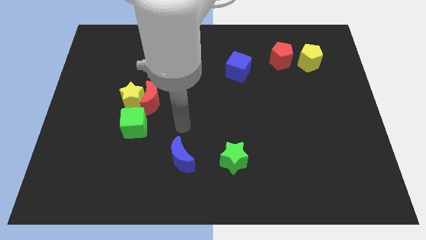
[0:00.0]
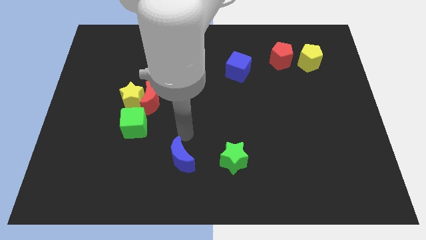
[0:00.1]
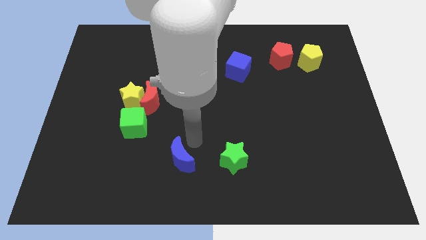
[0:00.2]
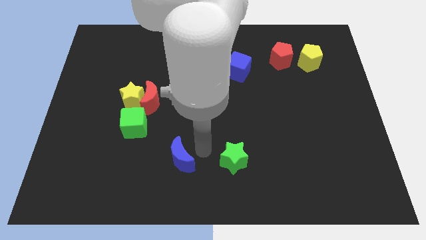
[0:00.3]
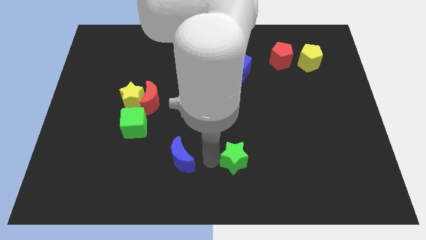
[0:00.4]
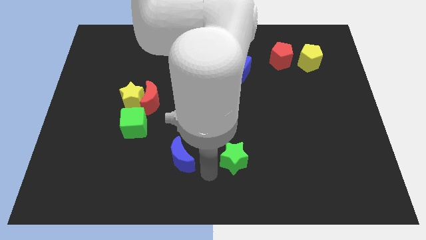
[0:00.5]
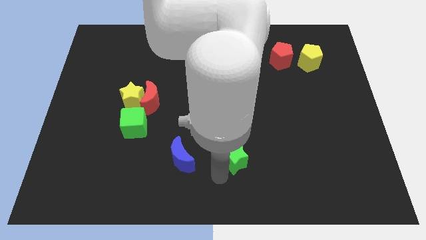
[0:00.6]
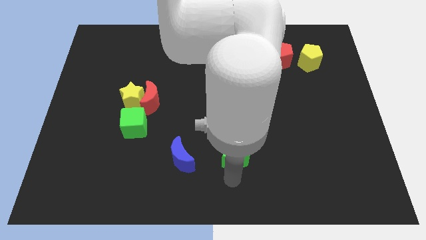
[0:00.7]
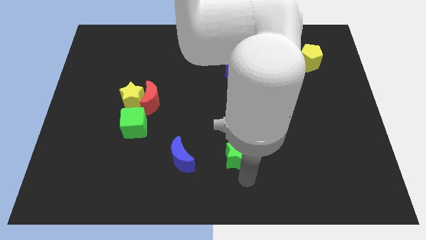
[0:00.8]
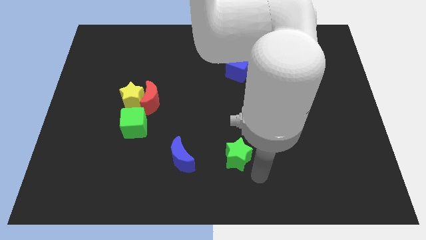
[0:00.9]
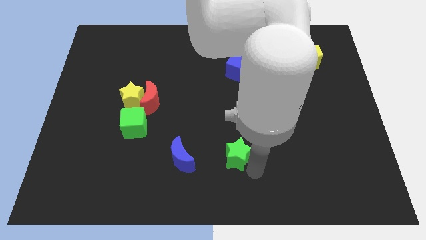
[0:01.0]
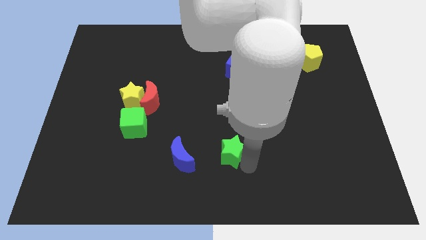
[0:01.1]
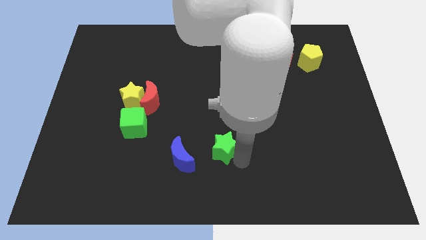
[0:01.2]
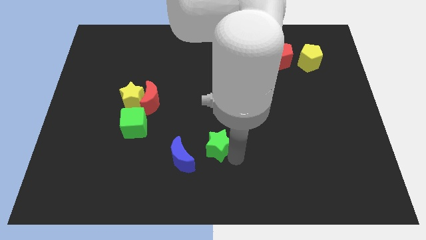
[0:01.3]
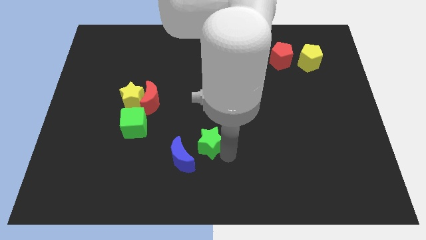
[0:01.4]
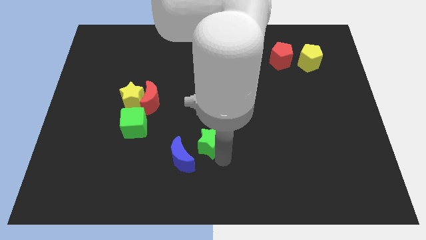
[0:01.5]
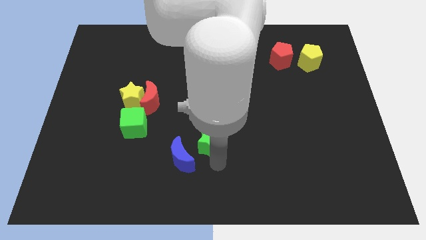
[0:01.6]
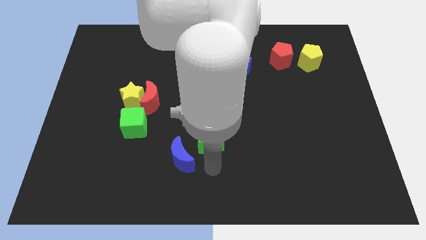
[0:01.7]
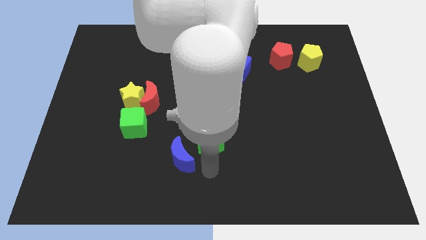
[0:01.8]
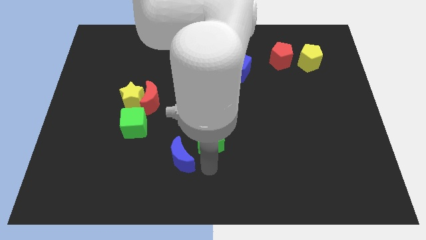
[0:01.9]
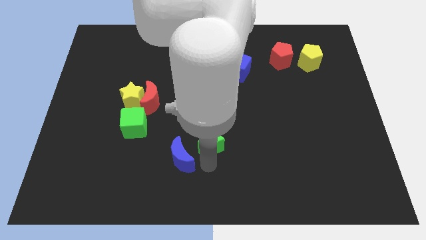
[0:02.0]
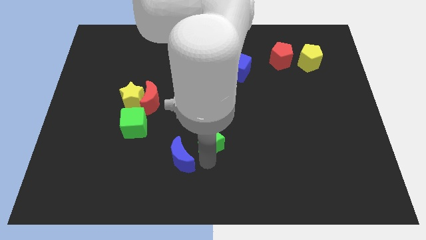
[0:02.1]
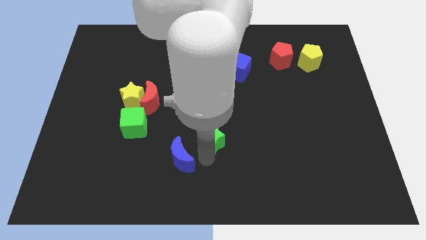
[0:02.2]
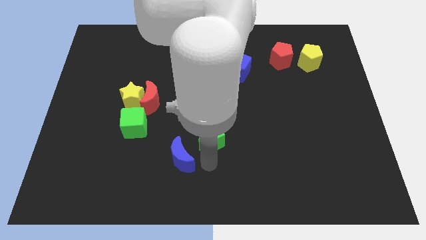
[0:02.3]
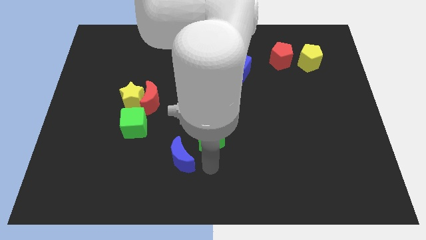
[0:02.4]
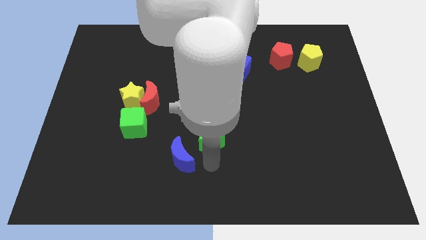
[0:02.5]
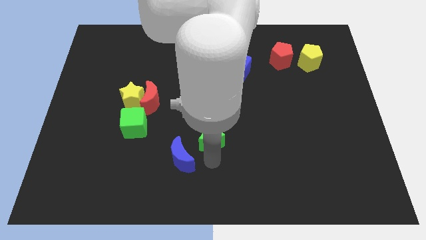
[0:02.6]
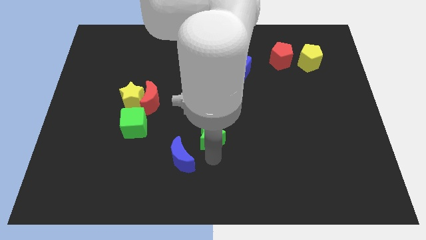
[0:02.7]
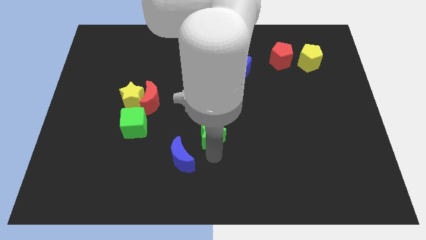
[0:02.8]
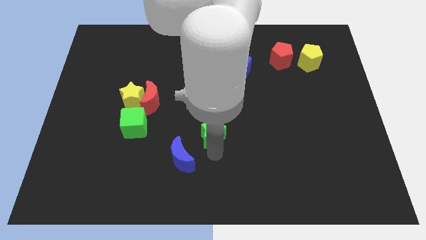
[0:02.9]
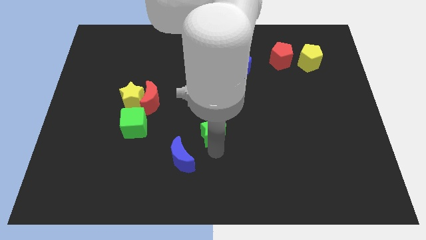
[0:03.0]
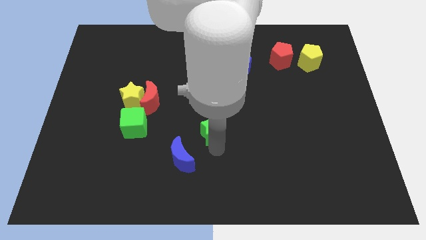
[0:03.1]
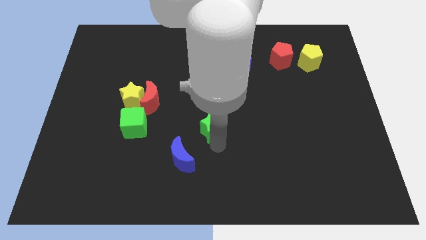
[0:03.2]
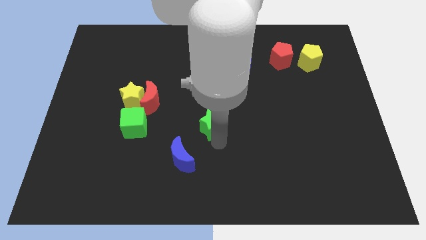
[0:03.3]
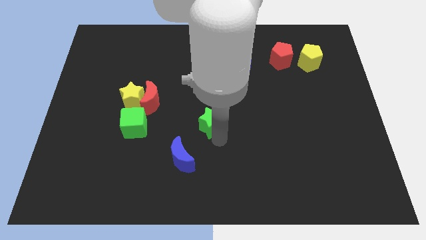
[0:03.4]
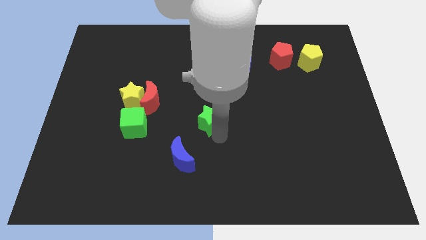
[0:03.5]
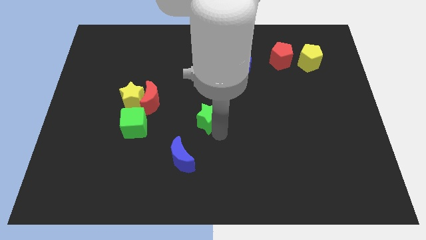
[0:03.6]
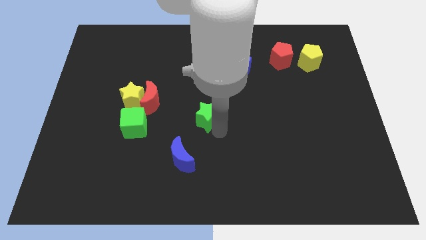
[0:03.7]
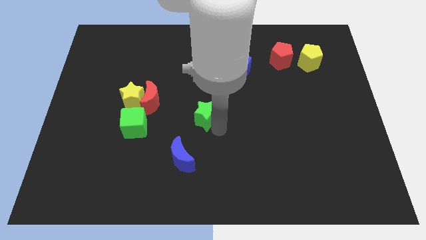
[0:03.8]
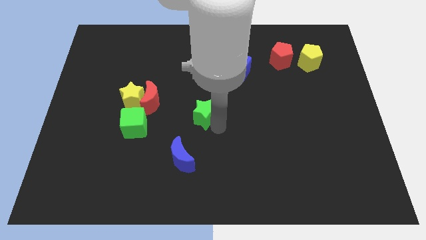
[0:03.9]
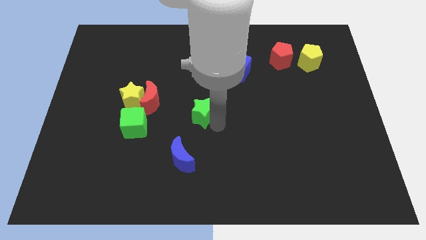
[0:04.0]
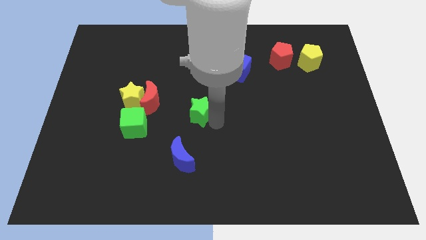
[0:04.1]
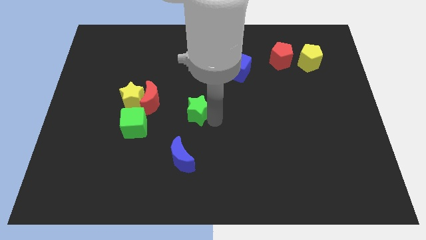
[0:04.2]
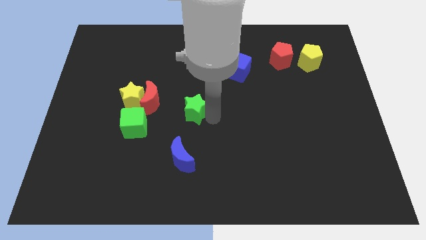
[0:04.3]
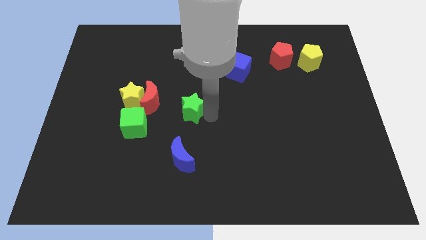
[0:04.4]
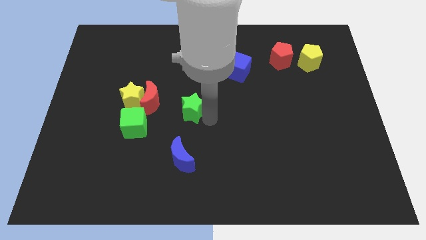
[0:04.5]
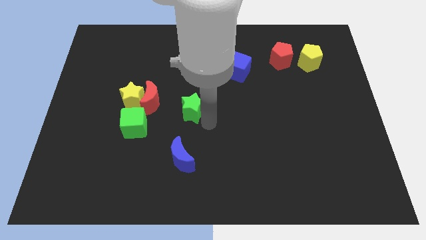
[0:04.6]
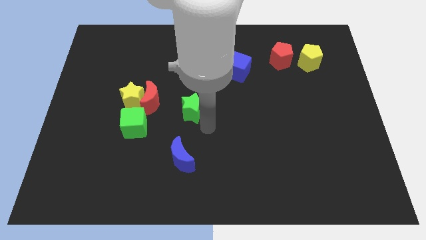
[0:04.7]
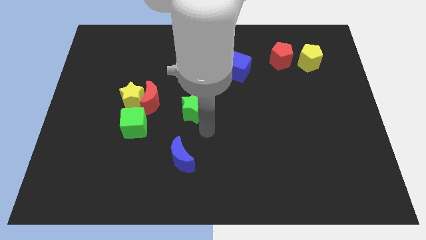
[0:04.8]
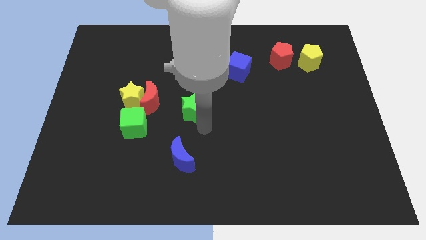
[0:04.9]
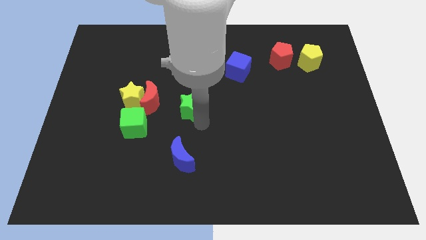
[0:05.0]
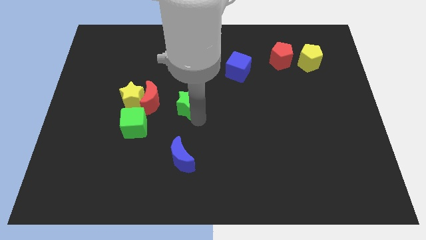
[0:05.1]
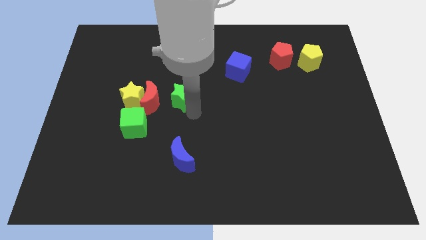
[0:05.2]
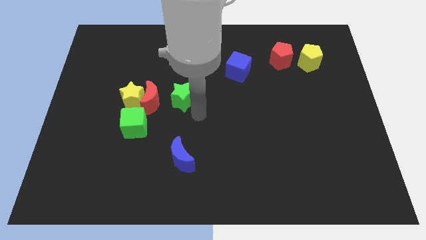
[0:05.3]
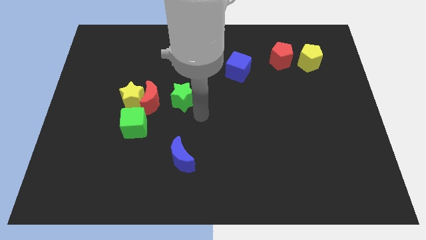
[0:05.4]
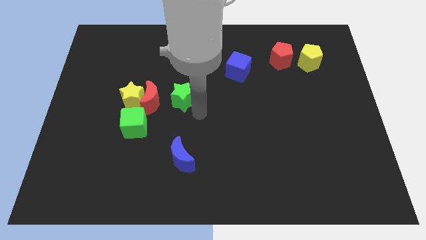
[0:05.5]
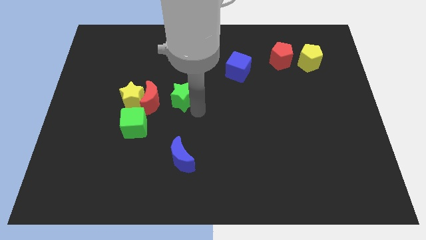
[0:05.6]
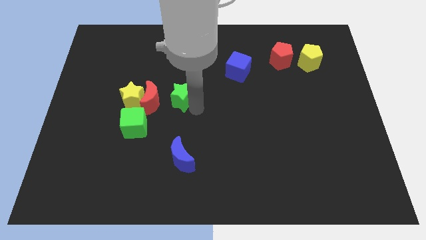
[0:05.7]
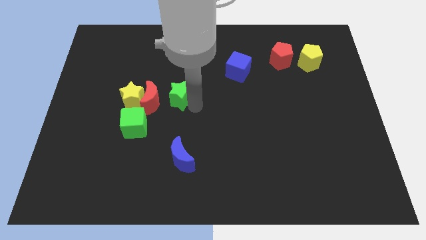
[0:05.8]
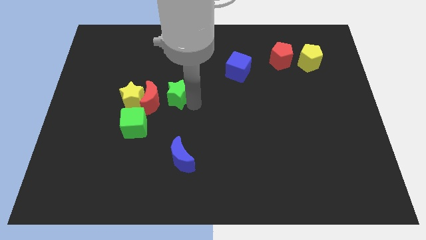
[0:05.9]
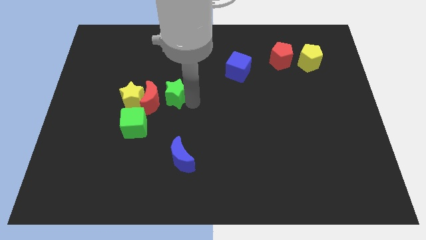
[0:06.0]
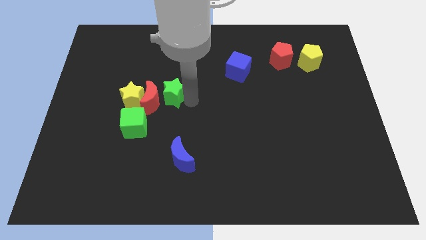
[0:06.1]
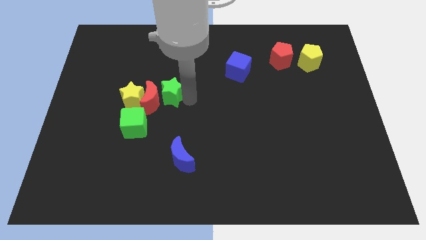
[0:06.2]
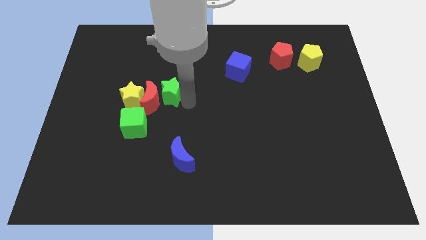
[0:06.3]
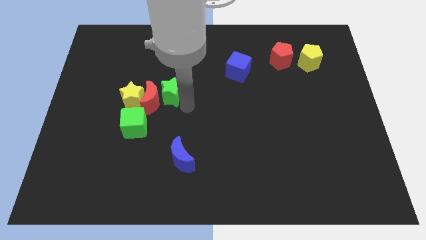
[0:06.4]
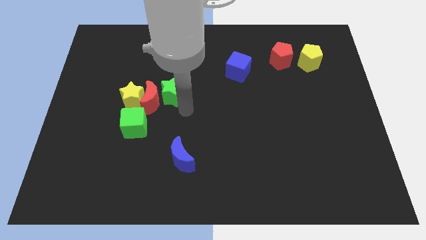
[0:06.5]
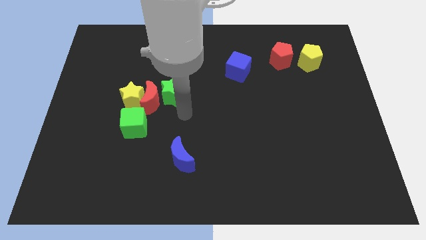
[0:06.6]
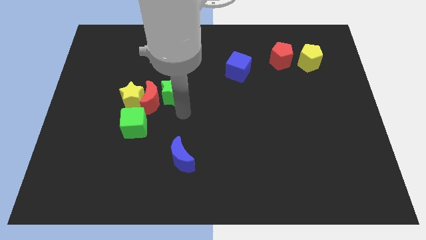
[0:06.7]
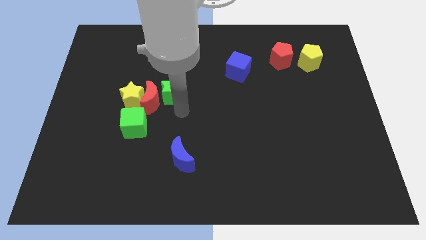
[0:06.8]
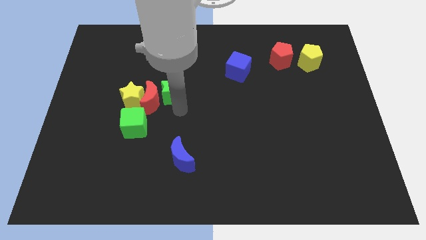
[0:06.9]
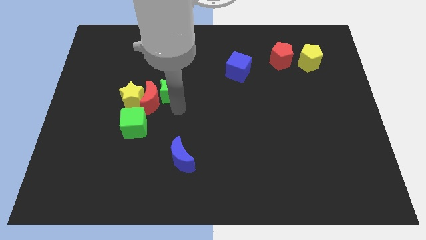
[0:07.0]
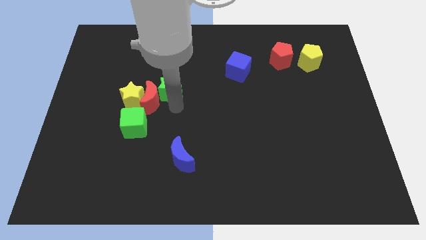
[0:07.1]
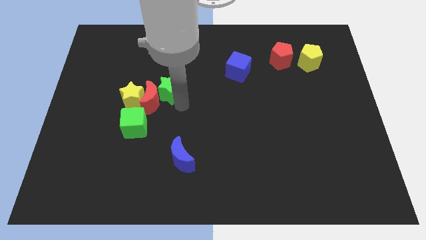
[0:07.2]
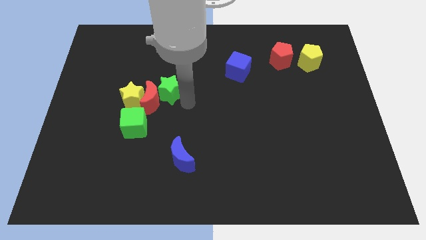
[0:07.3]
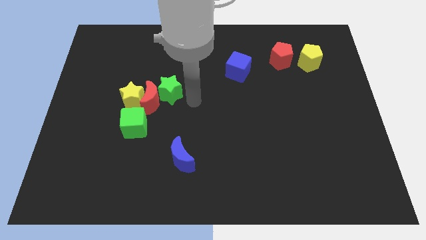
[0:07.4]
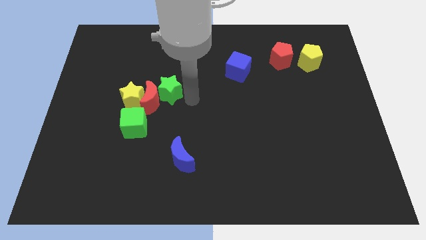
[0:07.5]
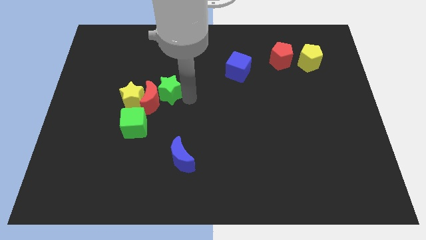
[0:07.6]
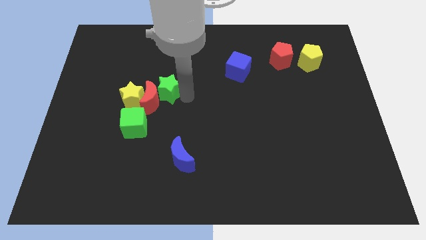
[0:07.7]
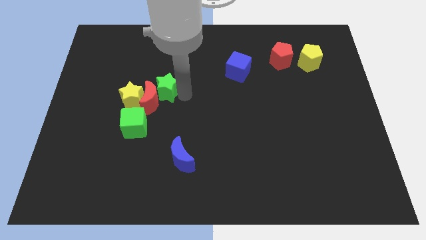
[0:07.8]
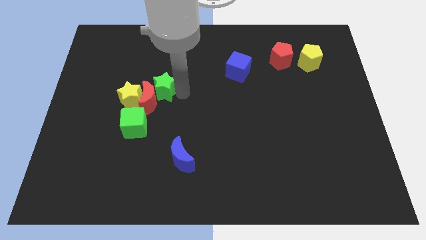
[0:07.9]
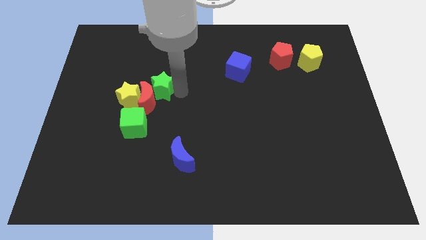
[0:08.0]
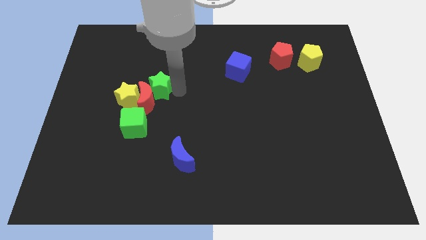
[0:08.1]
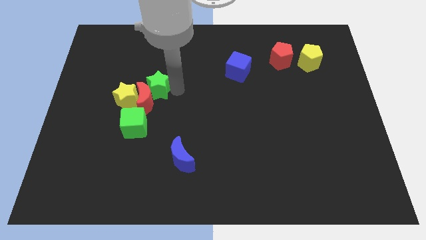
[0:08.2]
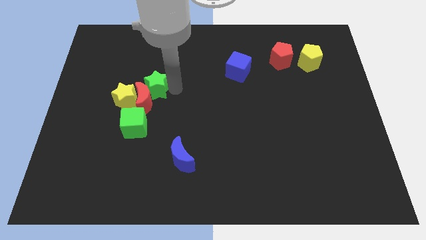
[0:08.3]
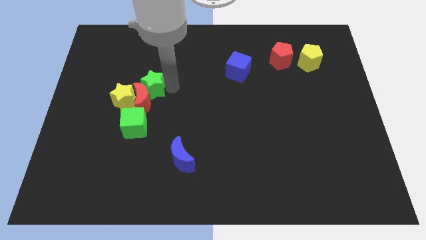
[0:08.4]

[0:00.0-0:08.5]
push the green star to the top left of the red moon
